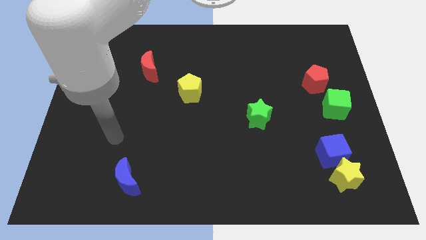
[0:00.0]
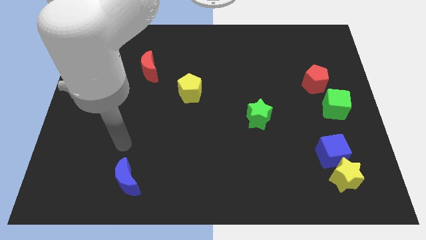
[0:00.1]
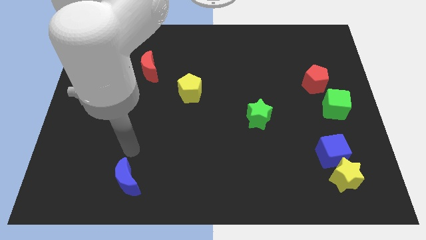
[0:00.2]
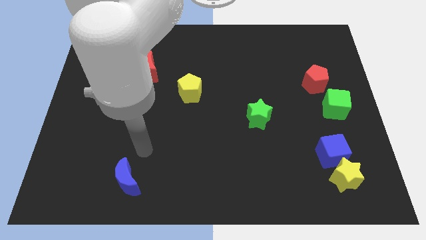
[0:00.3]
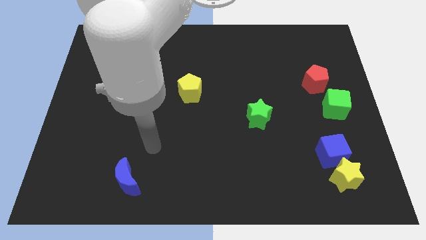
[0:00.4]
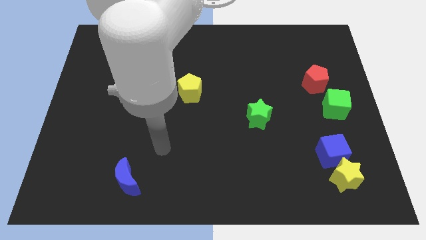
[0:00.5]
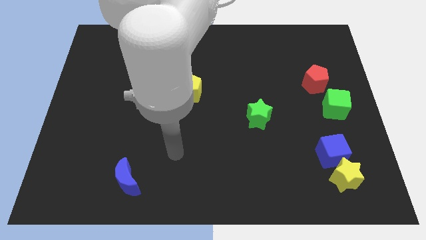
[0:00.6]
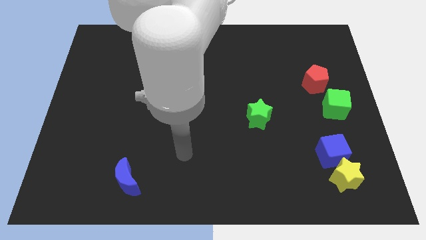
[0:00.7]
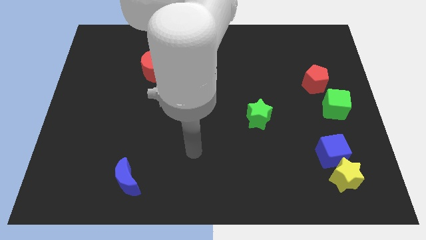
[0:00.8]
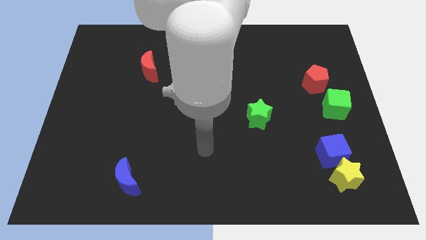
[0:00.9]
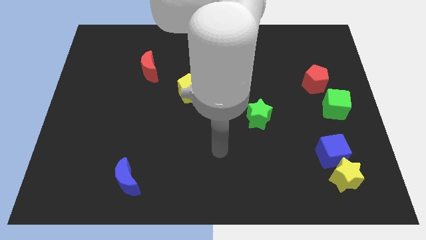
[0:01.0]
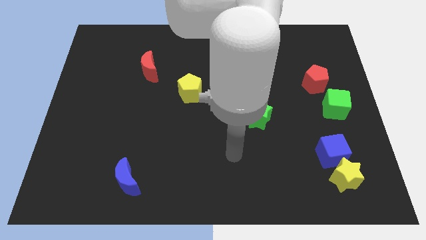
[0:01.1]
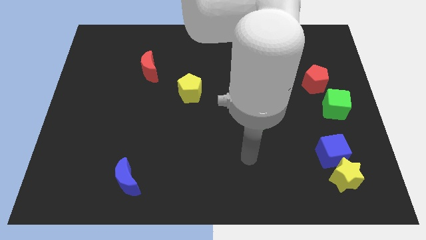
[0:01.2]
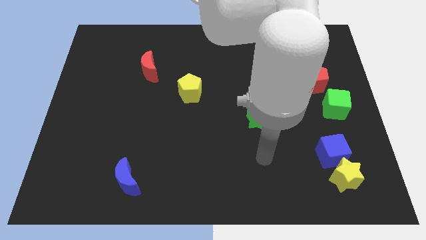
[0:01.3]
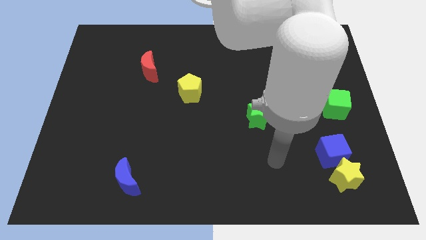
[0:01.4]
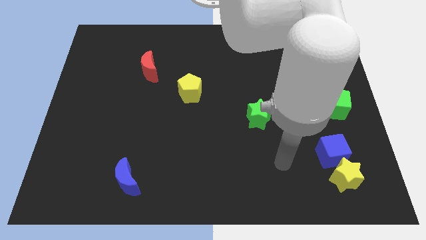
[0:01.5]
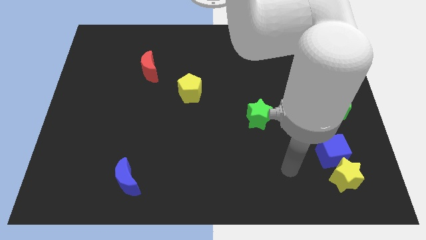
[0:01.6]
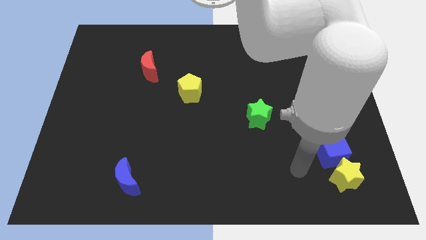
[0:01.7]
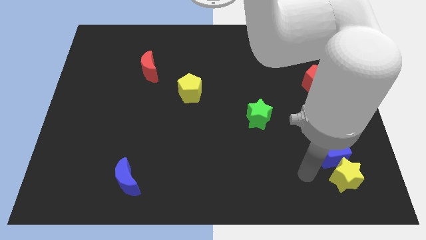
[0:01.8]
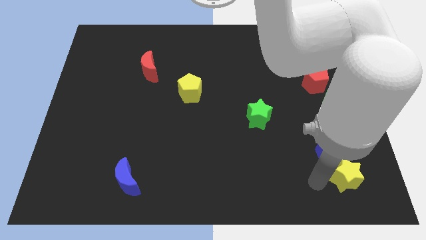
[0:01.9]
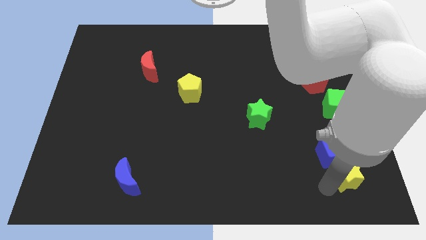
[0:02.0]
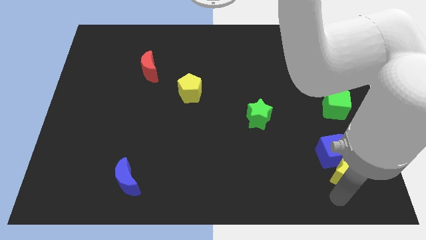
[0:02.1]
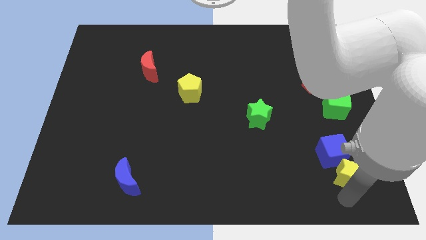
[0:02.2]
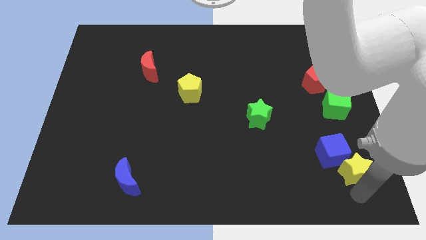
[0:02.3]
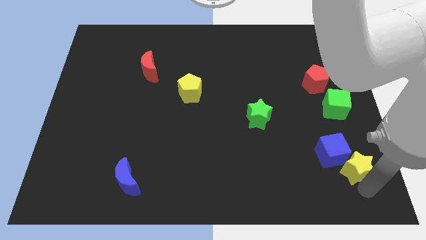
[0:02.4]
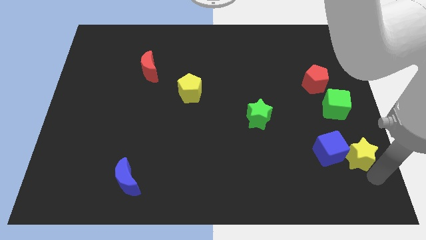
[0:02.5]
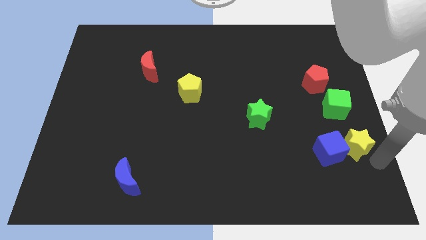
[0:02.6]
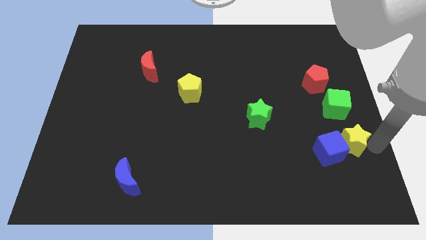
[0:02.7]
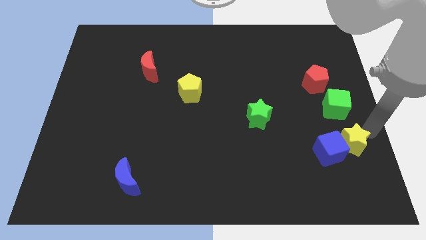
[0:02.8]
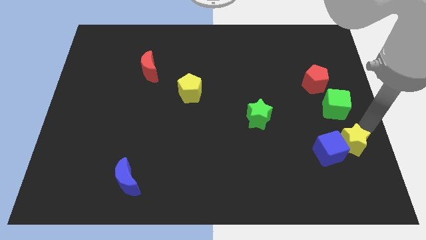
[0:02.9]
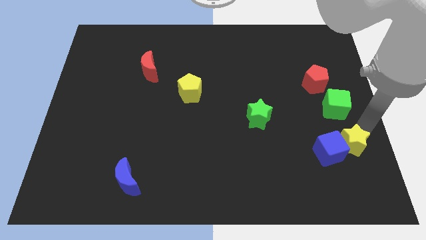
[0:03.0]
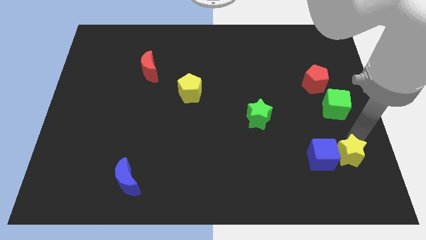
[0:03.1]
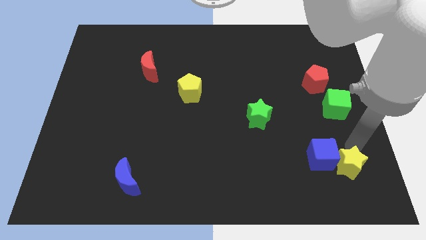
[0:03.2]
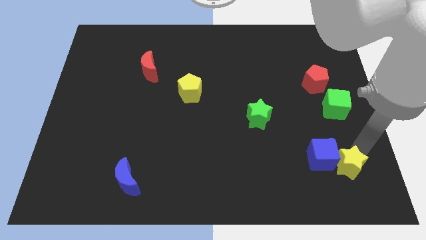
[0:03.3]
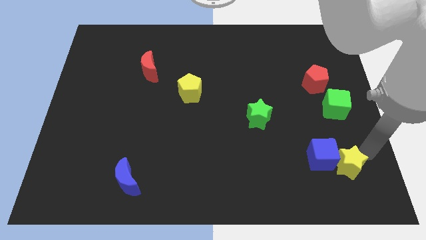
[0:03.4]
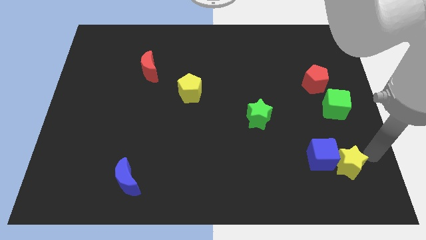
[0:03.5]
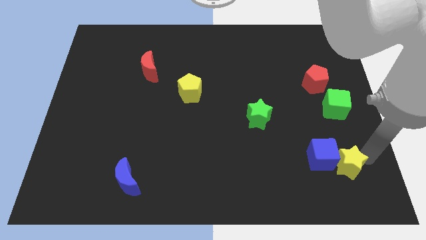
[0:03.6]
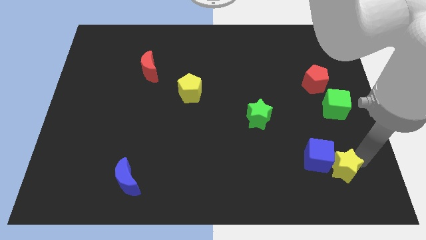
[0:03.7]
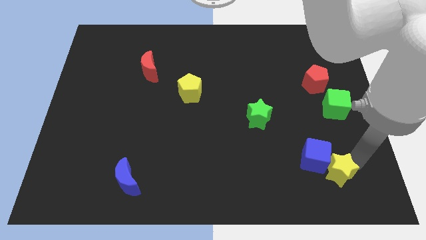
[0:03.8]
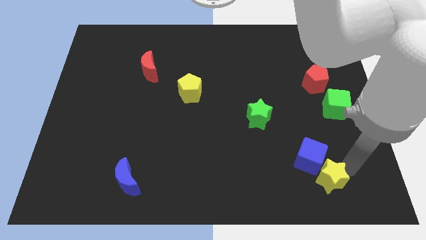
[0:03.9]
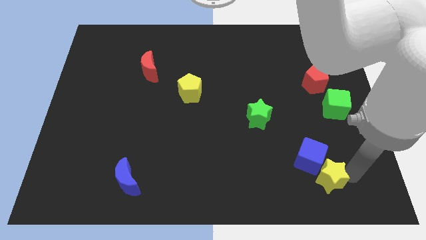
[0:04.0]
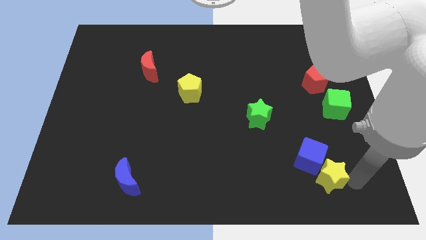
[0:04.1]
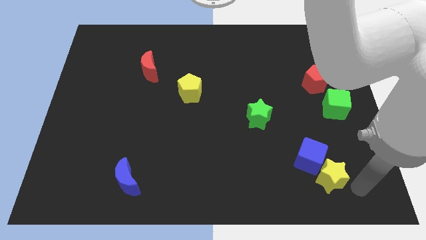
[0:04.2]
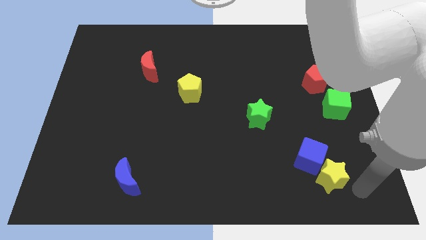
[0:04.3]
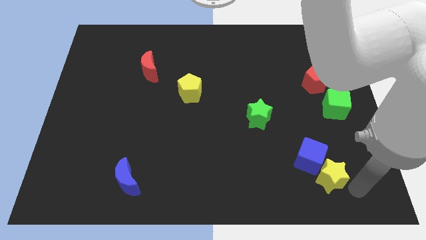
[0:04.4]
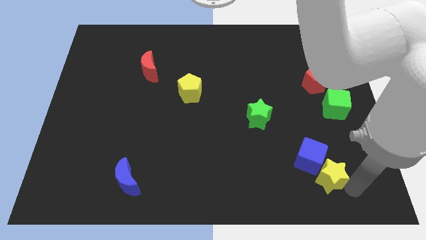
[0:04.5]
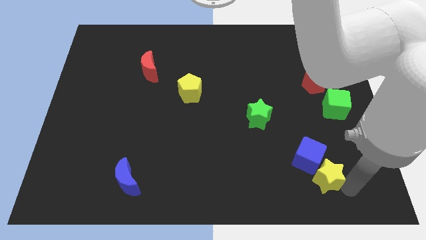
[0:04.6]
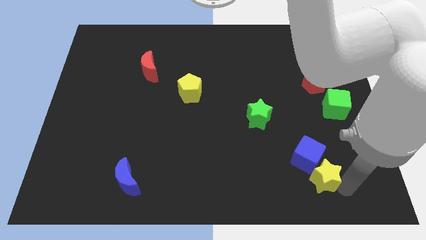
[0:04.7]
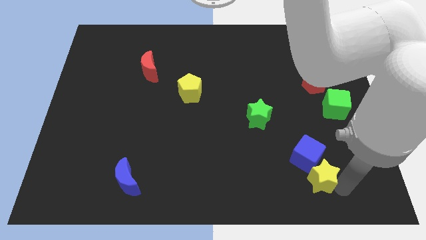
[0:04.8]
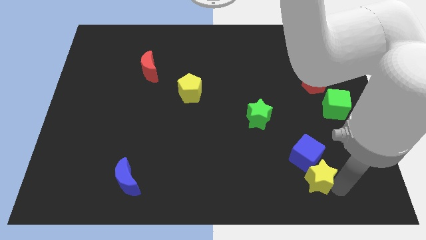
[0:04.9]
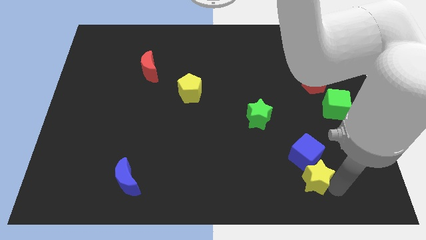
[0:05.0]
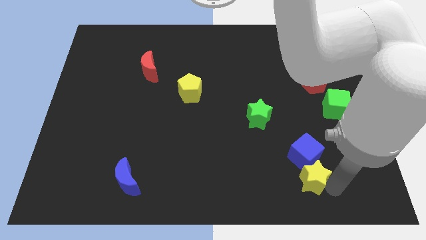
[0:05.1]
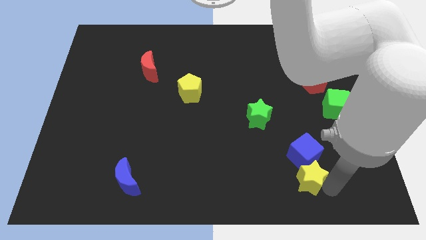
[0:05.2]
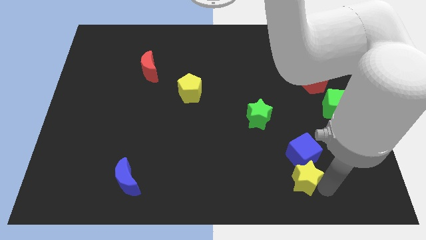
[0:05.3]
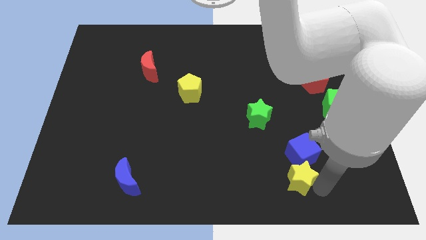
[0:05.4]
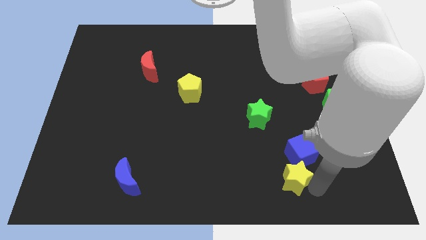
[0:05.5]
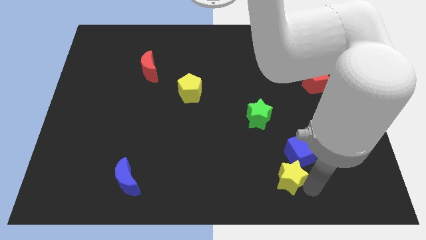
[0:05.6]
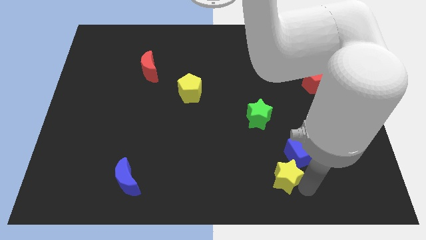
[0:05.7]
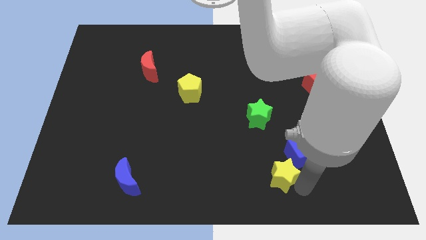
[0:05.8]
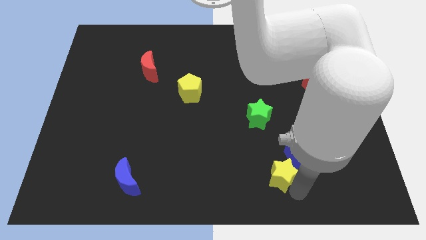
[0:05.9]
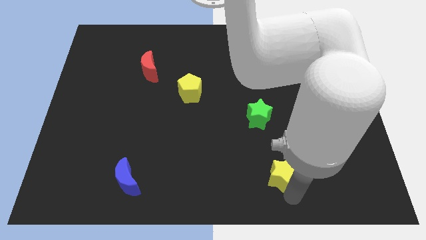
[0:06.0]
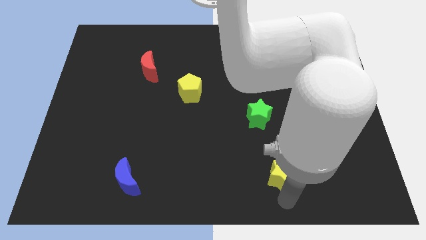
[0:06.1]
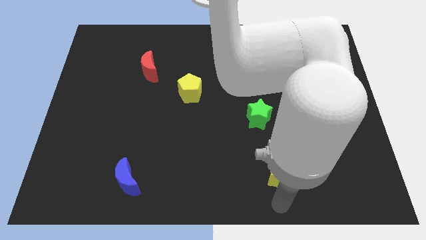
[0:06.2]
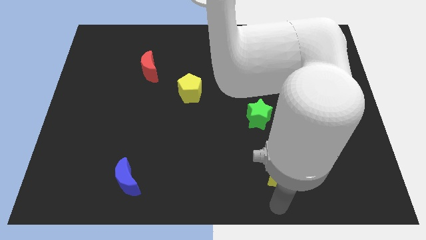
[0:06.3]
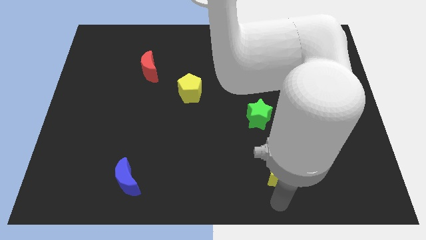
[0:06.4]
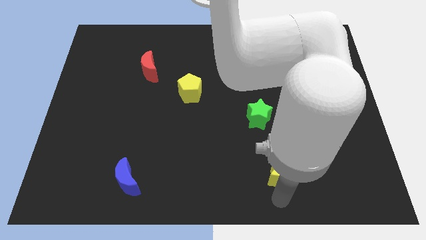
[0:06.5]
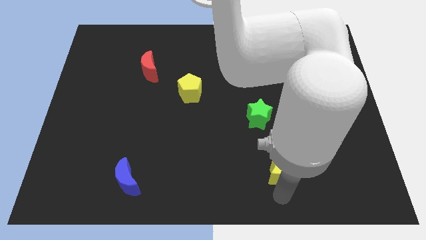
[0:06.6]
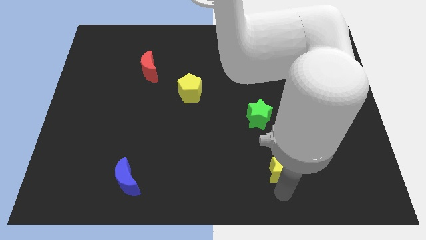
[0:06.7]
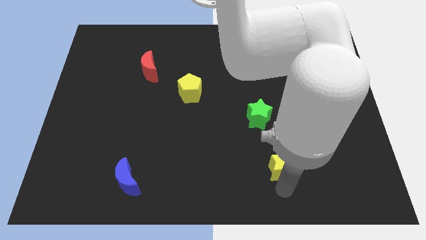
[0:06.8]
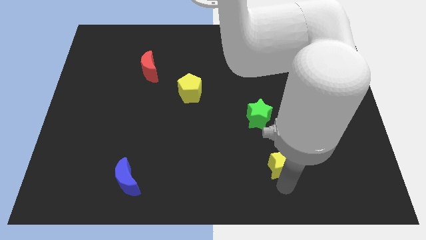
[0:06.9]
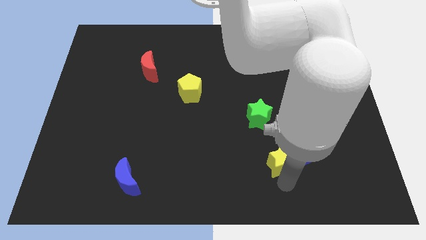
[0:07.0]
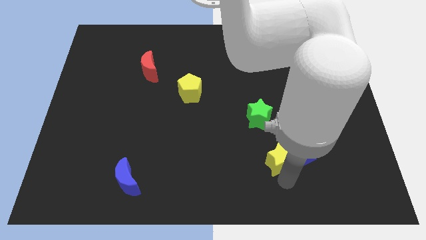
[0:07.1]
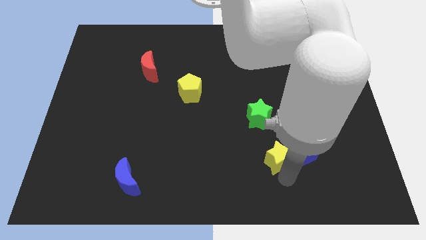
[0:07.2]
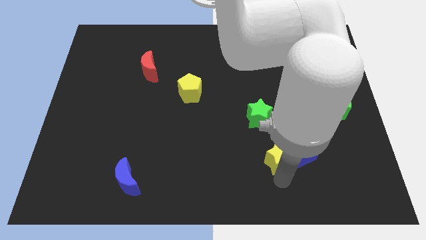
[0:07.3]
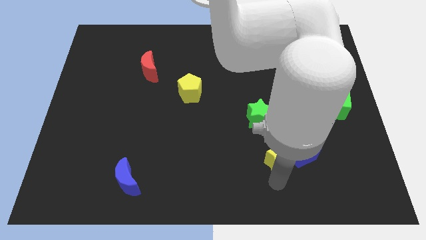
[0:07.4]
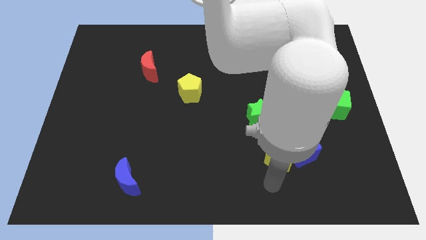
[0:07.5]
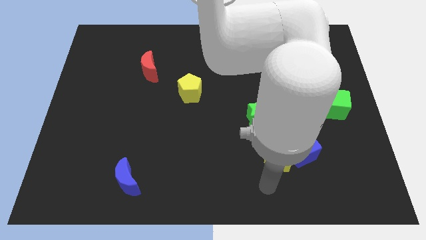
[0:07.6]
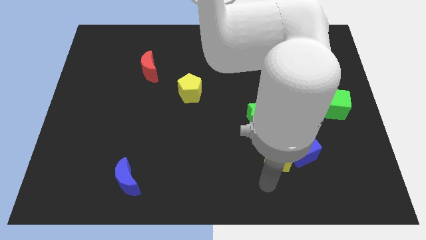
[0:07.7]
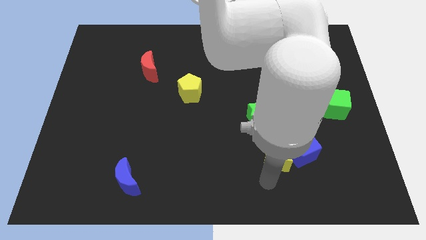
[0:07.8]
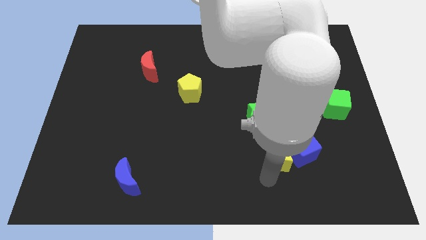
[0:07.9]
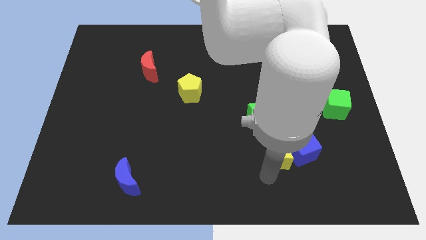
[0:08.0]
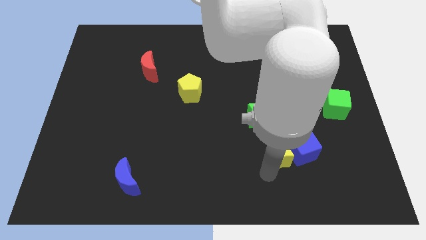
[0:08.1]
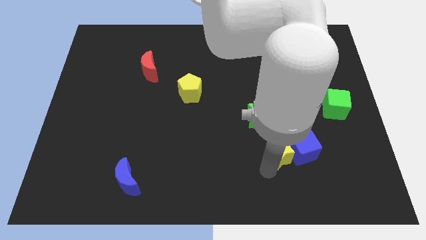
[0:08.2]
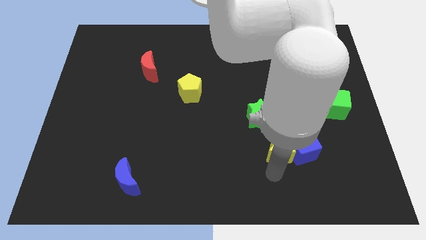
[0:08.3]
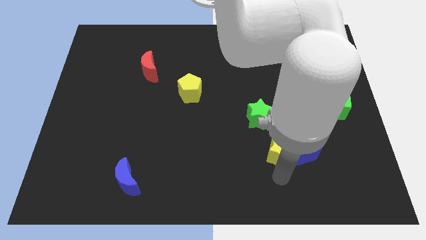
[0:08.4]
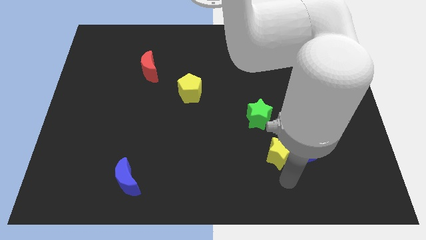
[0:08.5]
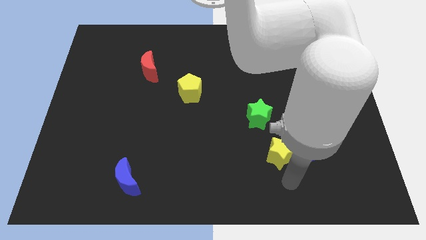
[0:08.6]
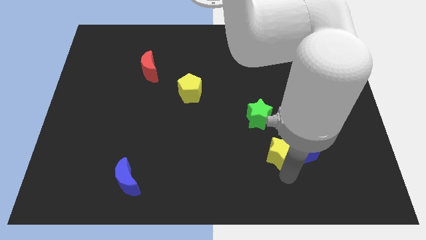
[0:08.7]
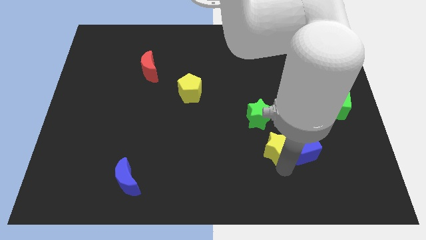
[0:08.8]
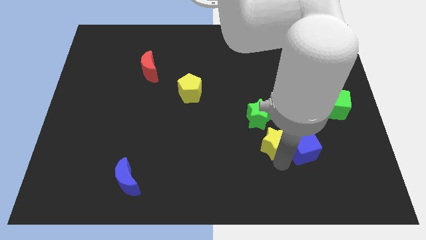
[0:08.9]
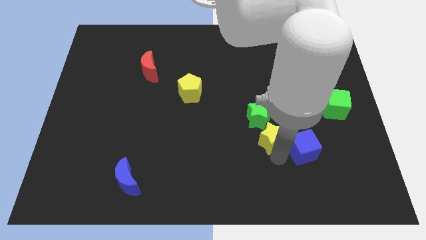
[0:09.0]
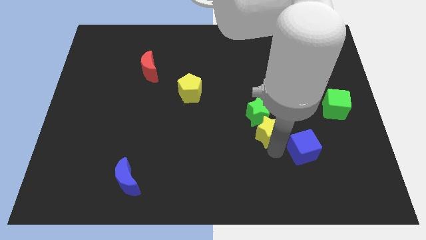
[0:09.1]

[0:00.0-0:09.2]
push the yellow star towards the green star
